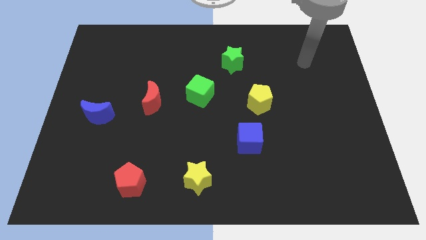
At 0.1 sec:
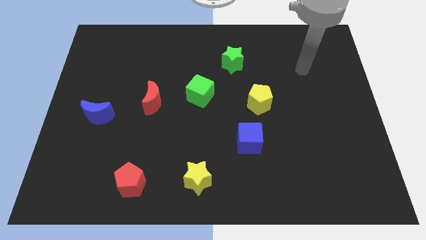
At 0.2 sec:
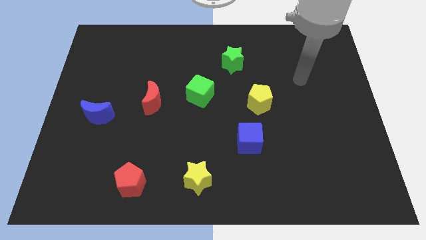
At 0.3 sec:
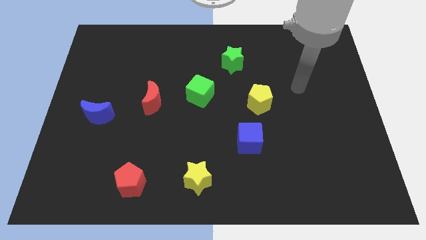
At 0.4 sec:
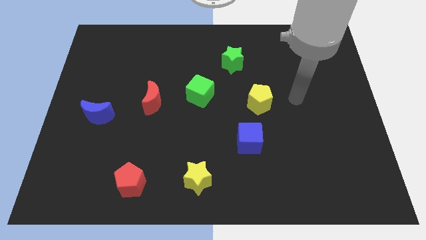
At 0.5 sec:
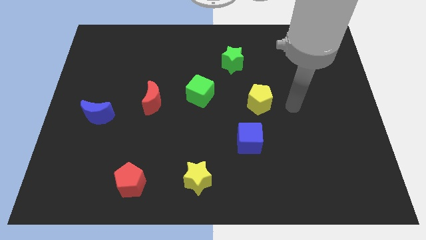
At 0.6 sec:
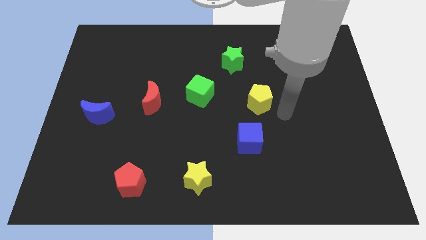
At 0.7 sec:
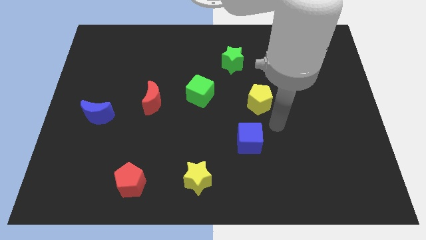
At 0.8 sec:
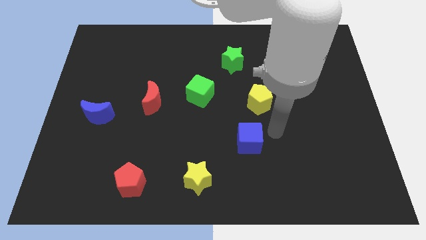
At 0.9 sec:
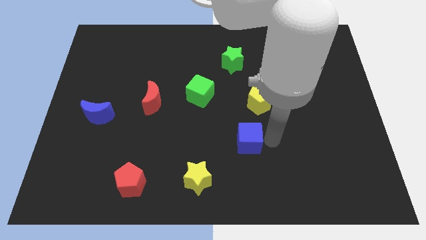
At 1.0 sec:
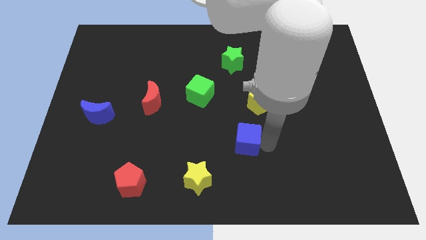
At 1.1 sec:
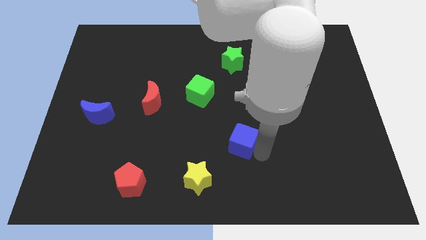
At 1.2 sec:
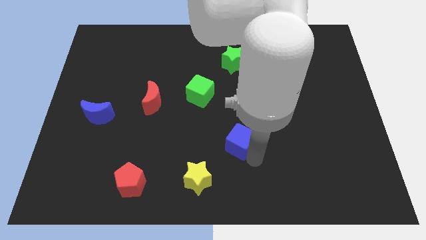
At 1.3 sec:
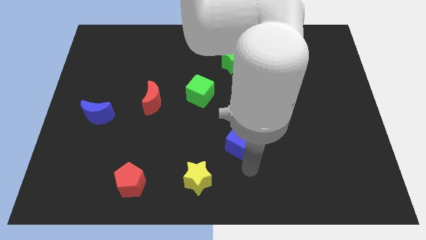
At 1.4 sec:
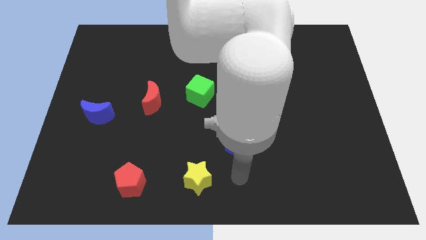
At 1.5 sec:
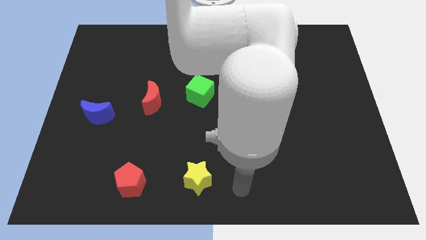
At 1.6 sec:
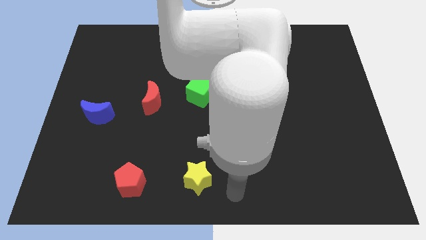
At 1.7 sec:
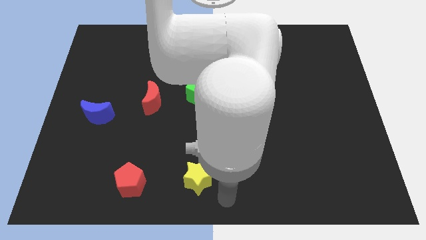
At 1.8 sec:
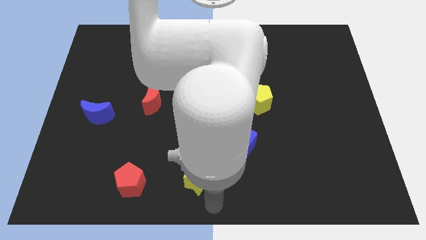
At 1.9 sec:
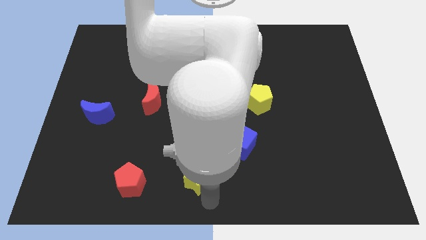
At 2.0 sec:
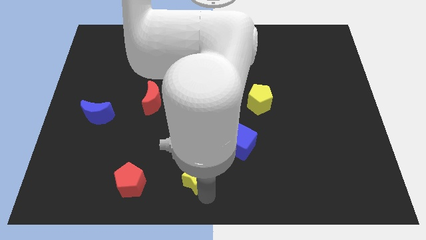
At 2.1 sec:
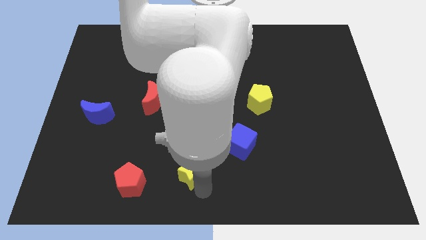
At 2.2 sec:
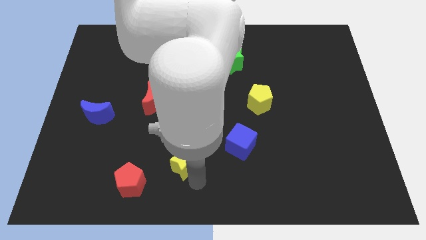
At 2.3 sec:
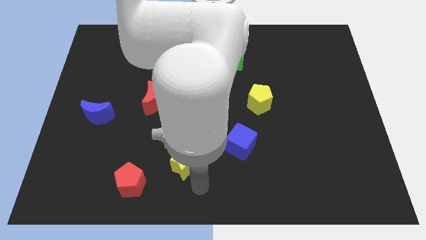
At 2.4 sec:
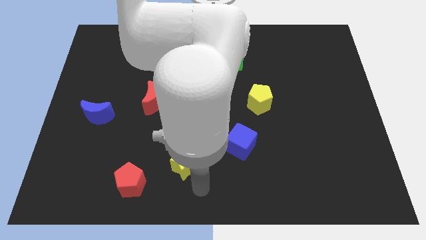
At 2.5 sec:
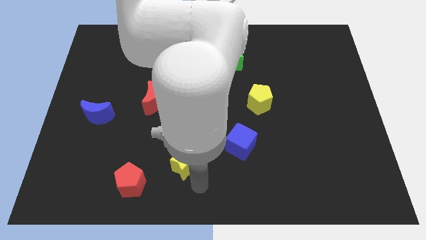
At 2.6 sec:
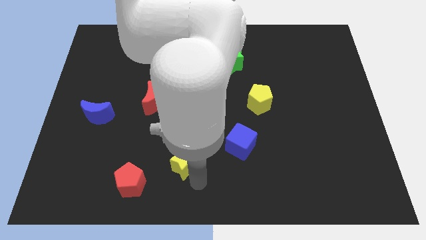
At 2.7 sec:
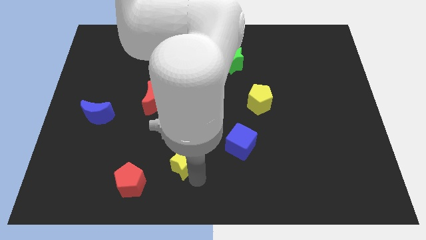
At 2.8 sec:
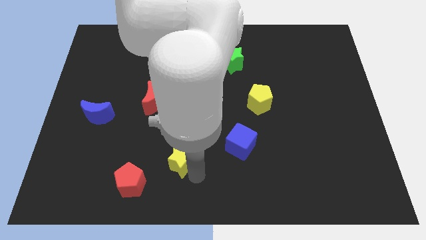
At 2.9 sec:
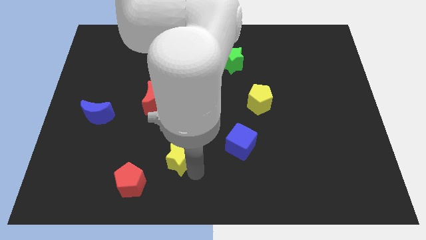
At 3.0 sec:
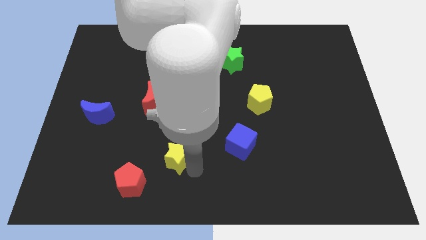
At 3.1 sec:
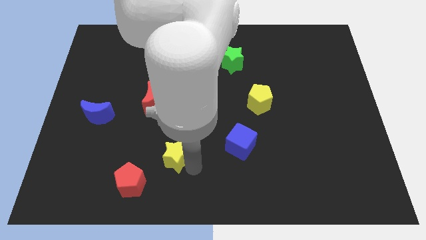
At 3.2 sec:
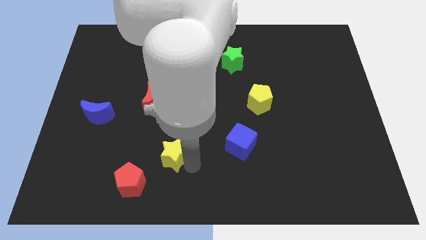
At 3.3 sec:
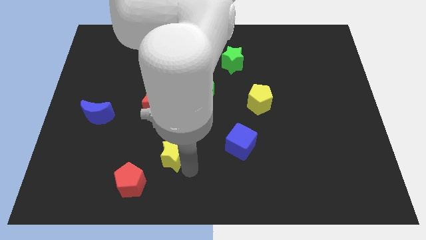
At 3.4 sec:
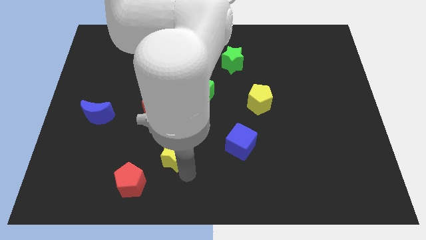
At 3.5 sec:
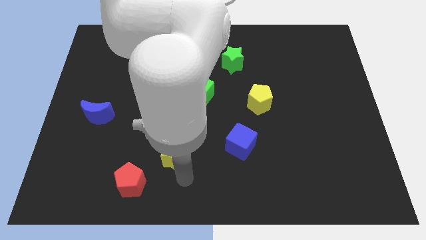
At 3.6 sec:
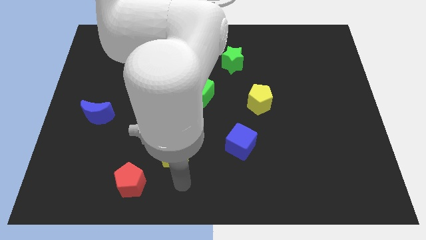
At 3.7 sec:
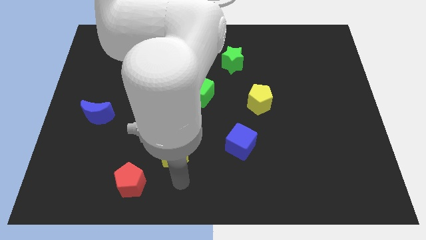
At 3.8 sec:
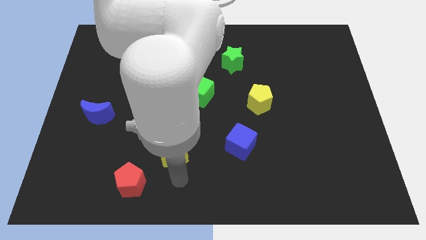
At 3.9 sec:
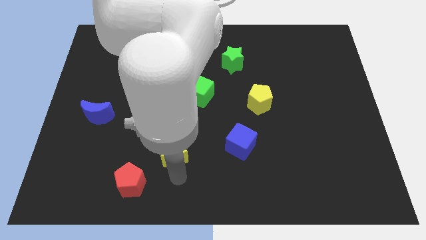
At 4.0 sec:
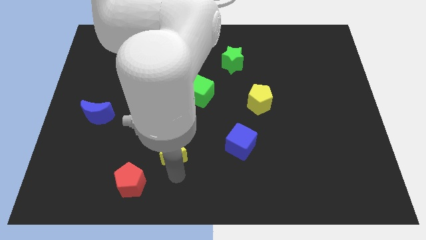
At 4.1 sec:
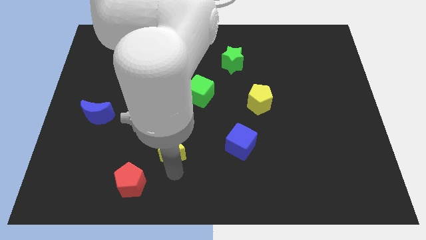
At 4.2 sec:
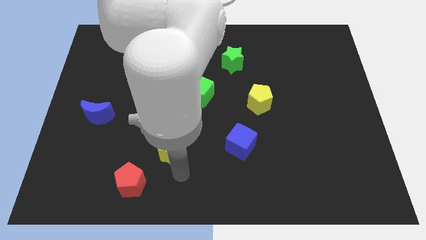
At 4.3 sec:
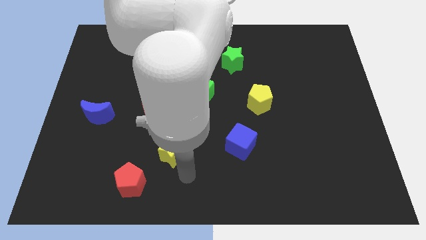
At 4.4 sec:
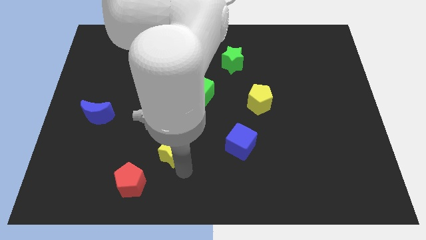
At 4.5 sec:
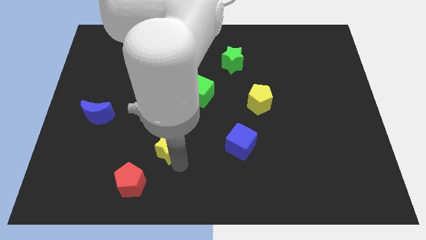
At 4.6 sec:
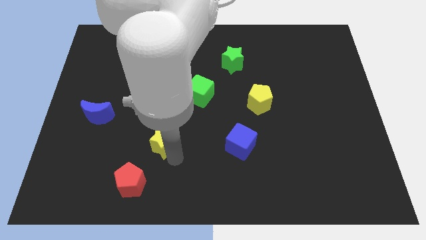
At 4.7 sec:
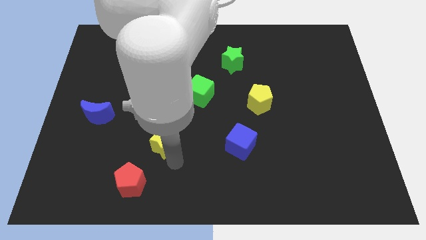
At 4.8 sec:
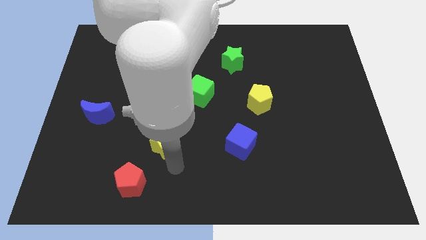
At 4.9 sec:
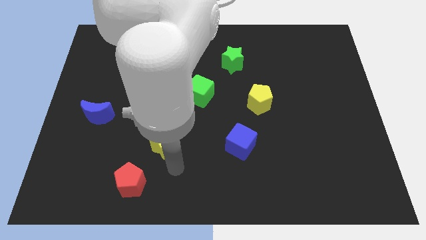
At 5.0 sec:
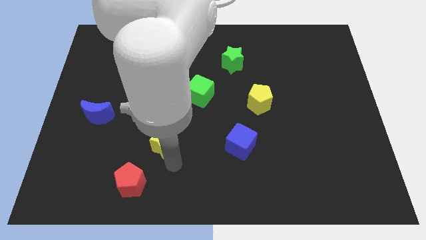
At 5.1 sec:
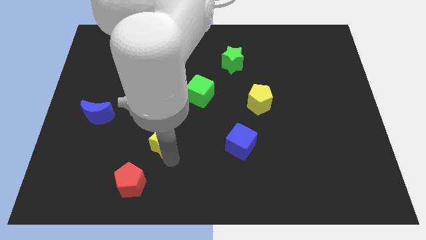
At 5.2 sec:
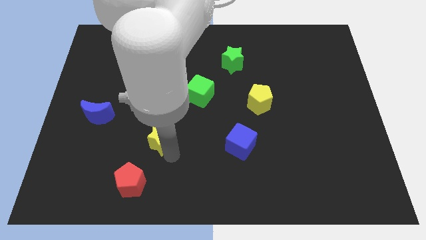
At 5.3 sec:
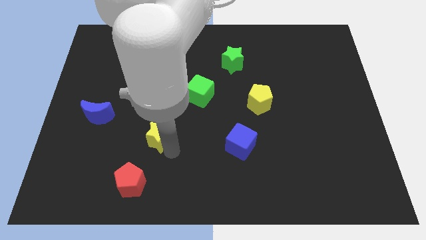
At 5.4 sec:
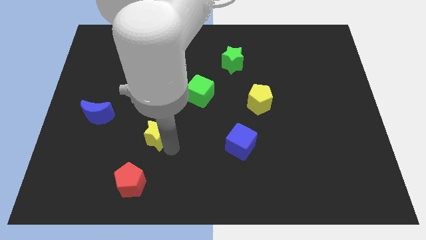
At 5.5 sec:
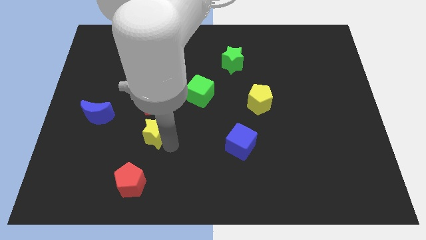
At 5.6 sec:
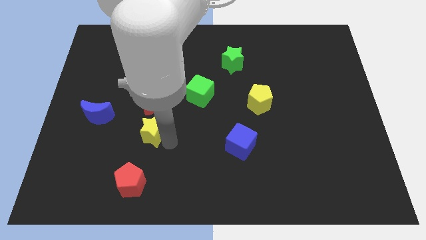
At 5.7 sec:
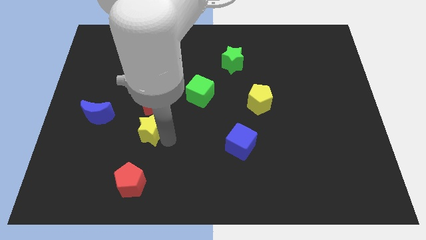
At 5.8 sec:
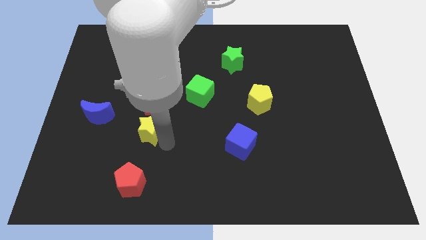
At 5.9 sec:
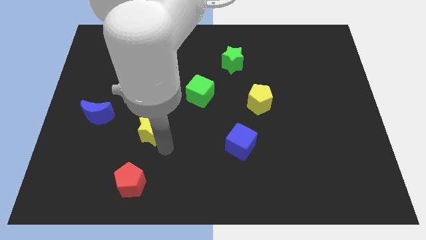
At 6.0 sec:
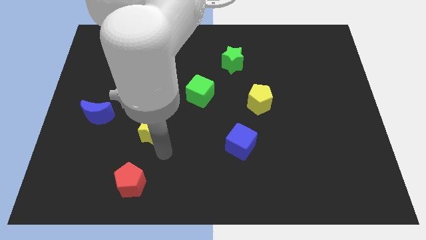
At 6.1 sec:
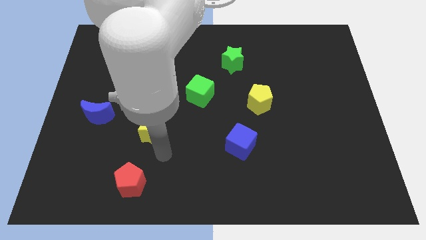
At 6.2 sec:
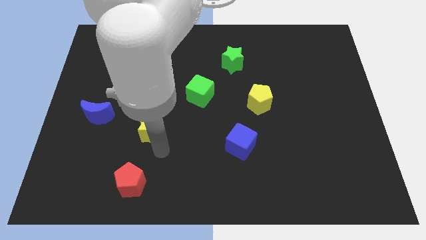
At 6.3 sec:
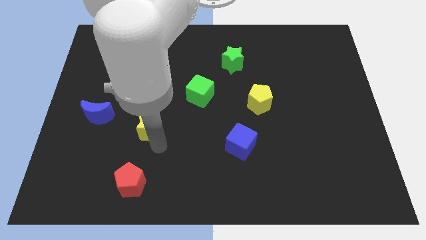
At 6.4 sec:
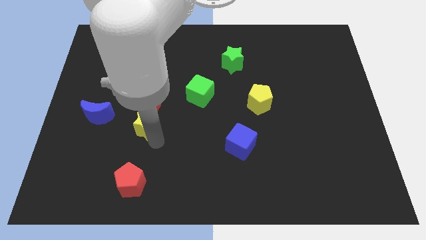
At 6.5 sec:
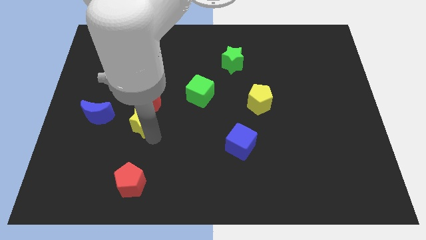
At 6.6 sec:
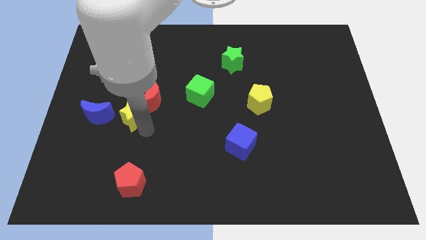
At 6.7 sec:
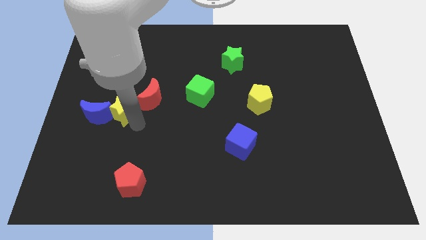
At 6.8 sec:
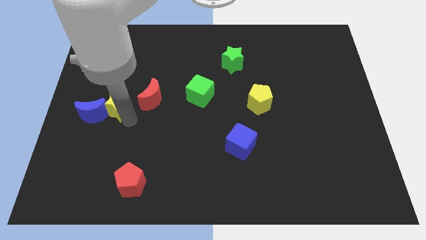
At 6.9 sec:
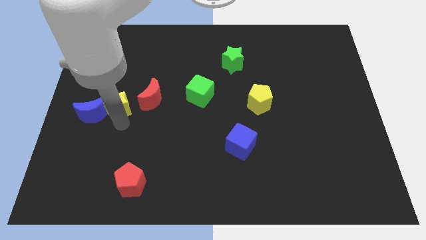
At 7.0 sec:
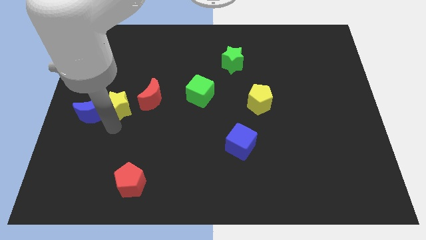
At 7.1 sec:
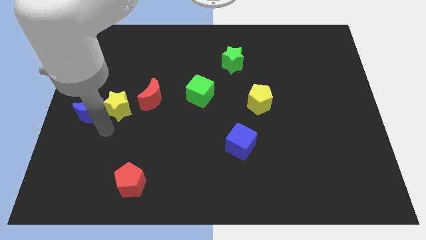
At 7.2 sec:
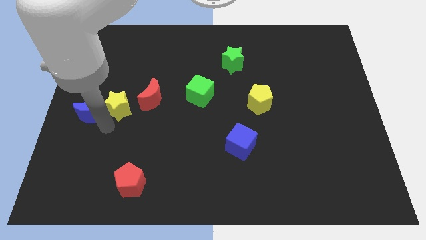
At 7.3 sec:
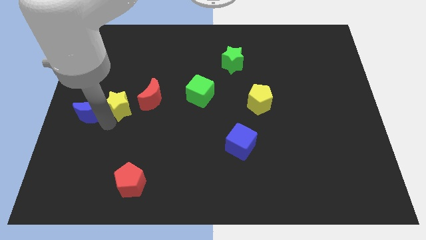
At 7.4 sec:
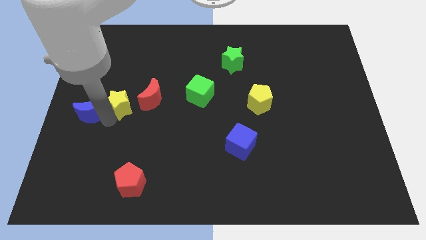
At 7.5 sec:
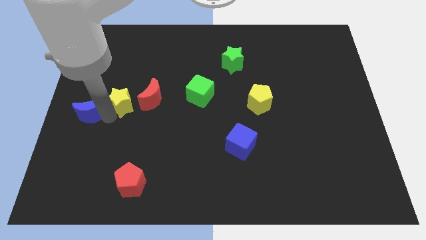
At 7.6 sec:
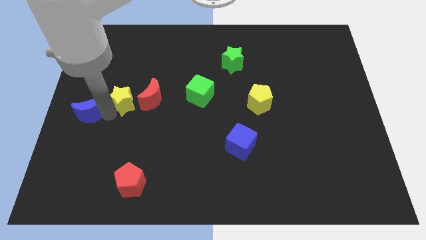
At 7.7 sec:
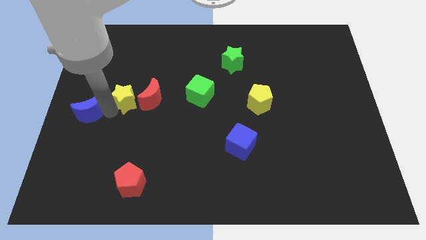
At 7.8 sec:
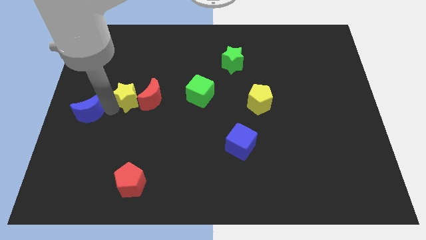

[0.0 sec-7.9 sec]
slide the yellow star to the top left side of the red moon
